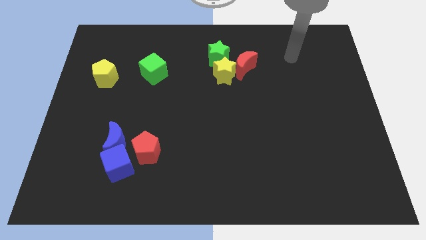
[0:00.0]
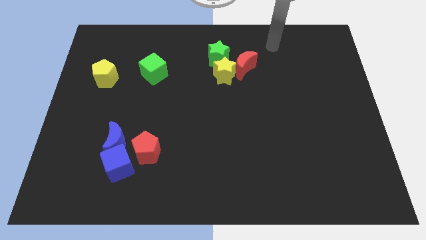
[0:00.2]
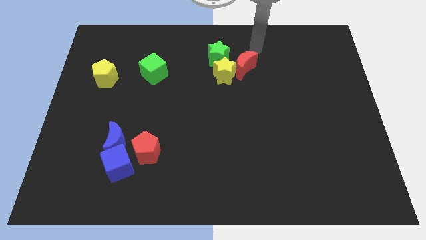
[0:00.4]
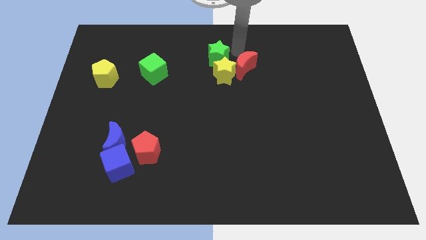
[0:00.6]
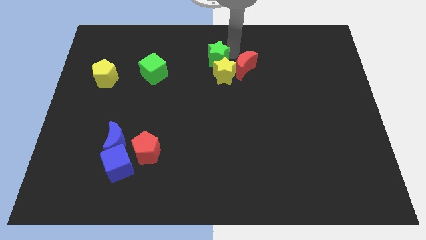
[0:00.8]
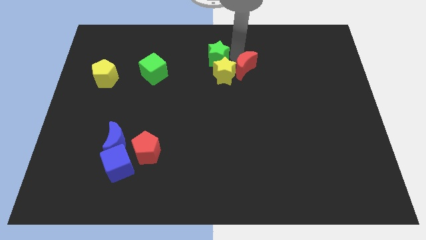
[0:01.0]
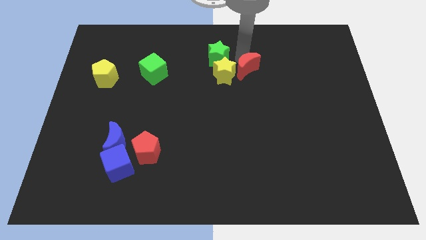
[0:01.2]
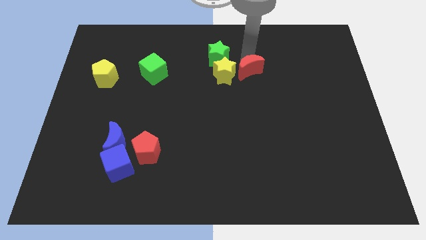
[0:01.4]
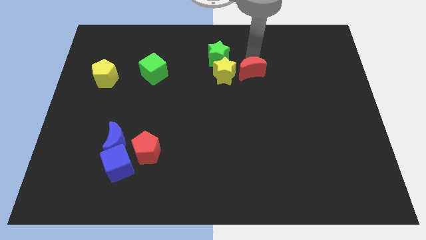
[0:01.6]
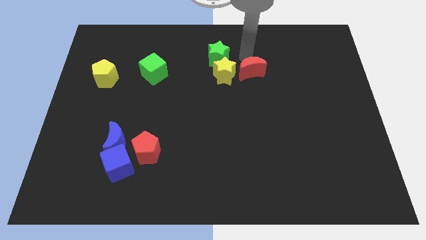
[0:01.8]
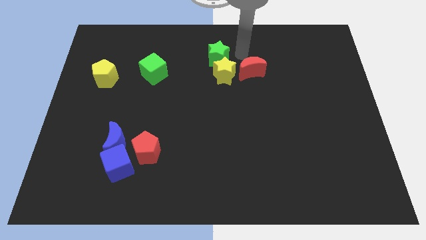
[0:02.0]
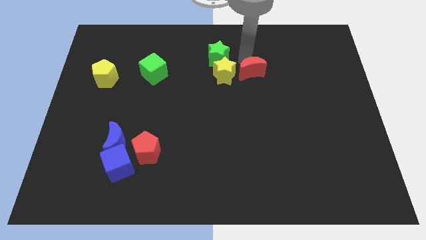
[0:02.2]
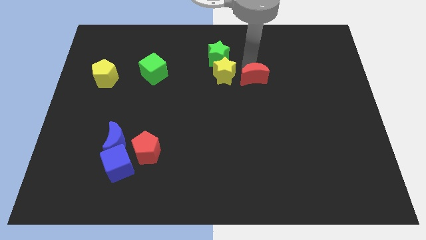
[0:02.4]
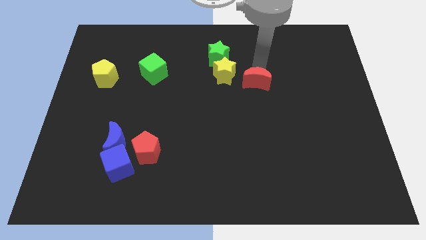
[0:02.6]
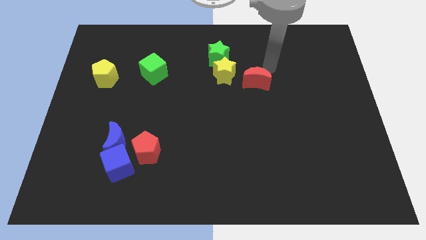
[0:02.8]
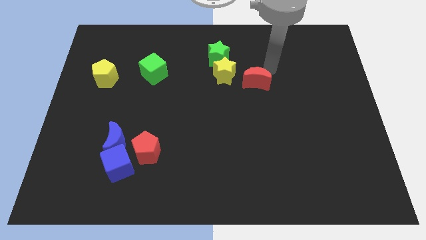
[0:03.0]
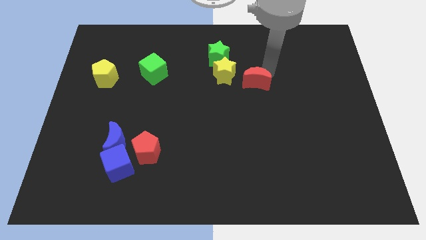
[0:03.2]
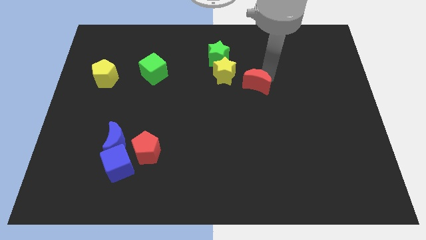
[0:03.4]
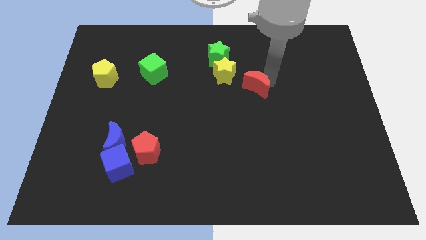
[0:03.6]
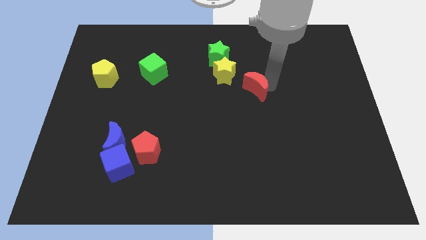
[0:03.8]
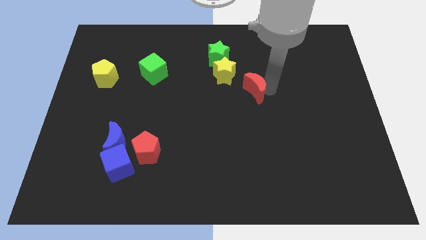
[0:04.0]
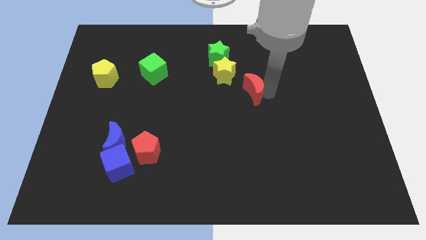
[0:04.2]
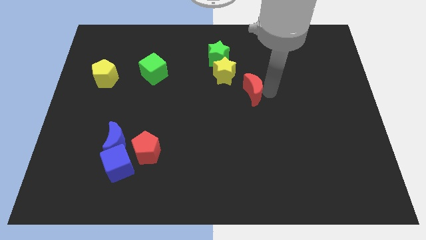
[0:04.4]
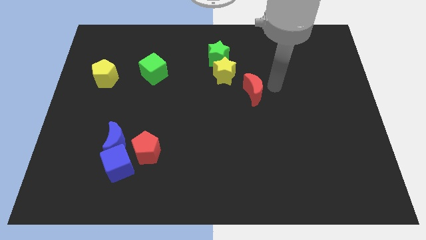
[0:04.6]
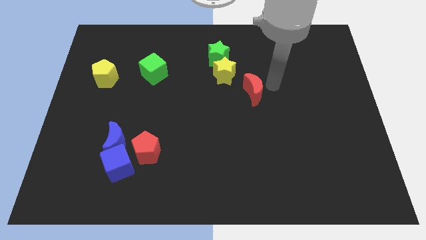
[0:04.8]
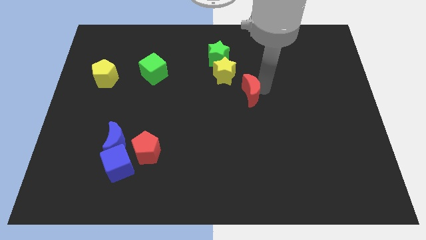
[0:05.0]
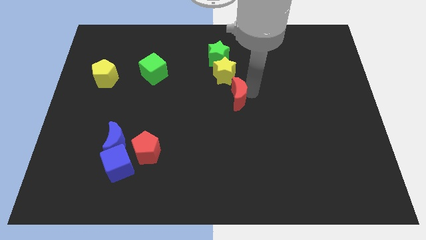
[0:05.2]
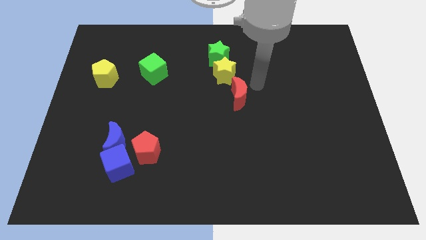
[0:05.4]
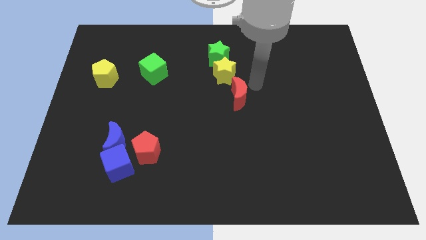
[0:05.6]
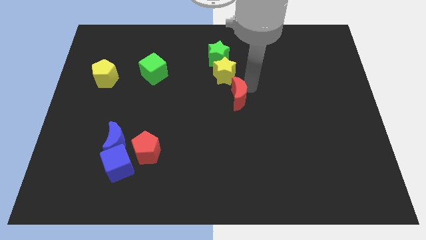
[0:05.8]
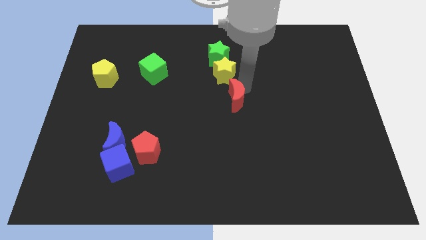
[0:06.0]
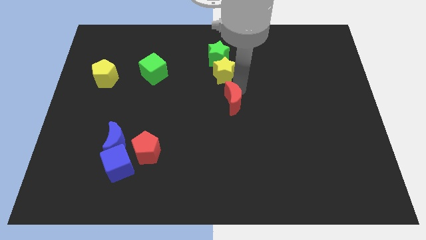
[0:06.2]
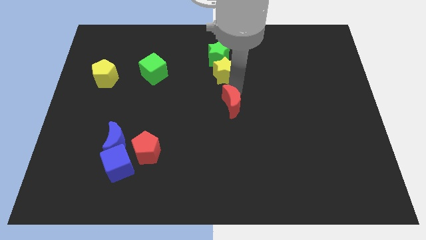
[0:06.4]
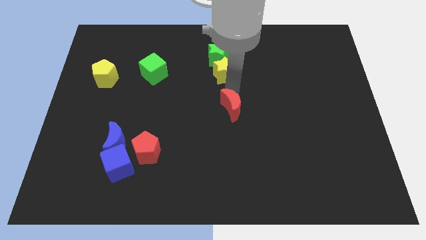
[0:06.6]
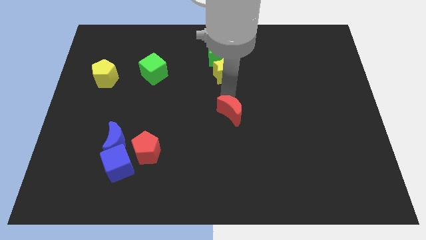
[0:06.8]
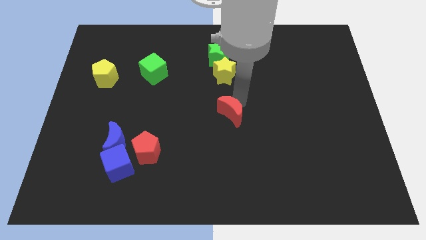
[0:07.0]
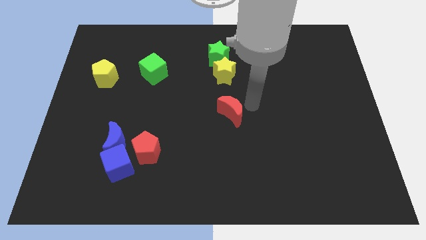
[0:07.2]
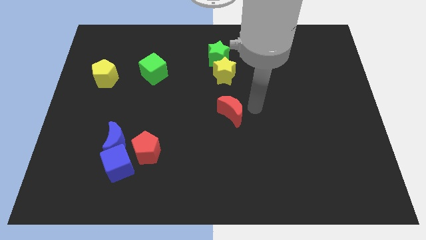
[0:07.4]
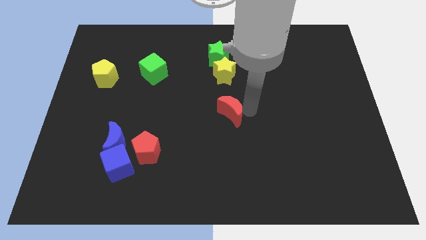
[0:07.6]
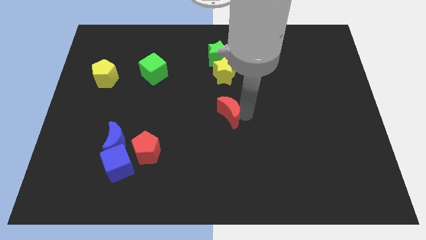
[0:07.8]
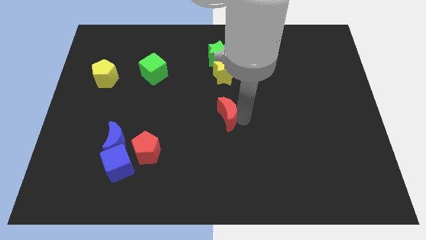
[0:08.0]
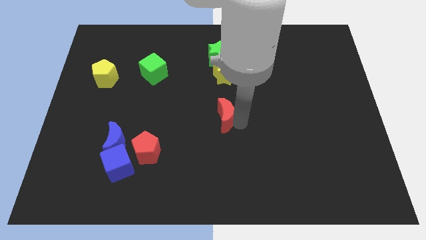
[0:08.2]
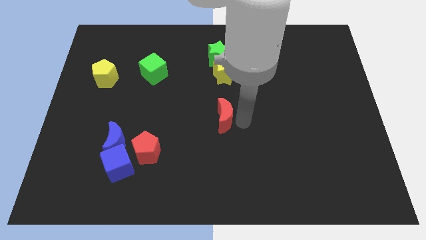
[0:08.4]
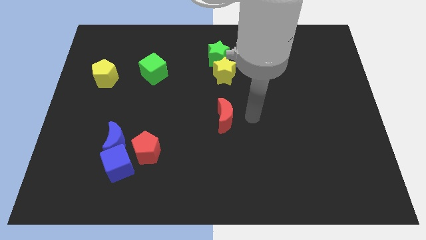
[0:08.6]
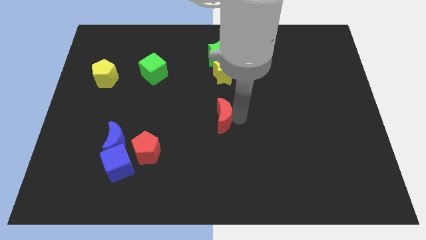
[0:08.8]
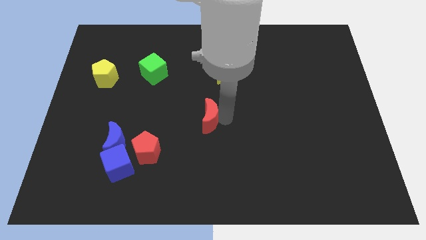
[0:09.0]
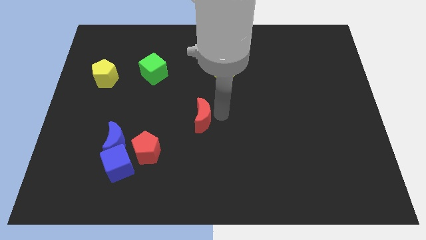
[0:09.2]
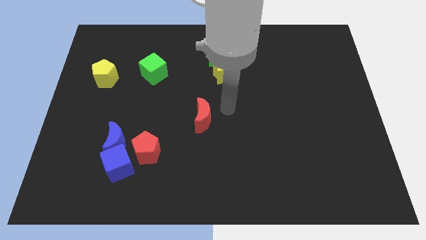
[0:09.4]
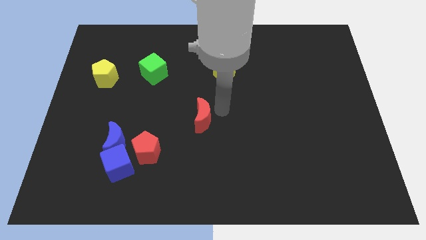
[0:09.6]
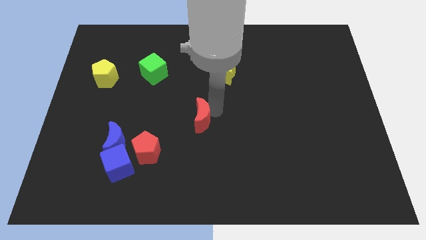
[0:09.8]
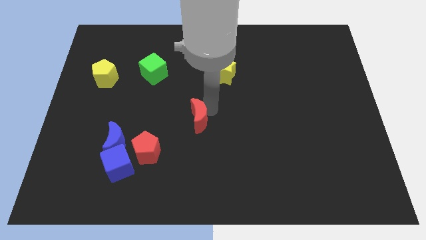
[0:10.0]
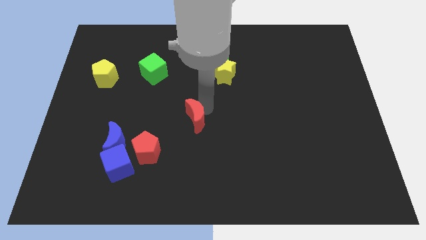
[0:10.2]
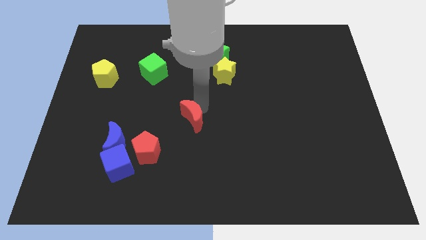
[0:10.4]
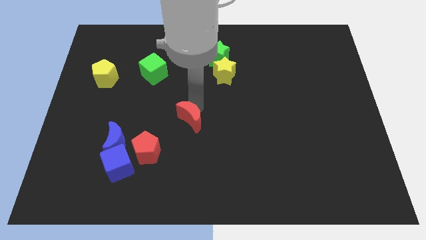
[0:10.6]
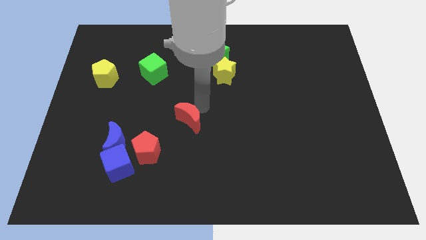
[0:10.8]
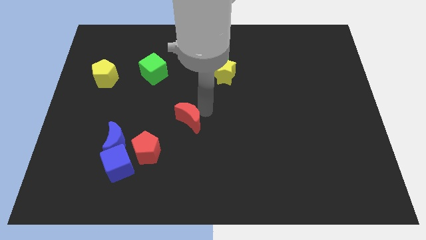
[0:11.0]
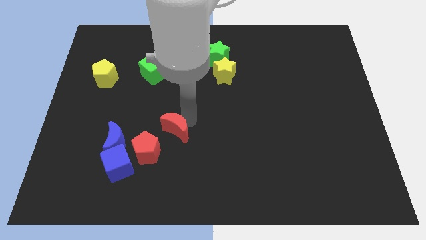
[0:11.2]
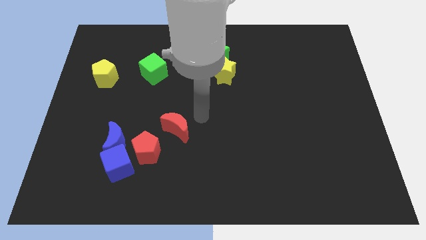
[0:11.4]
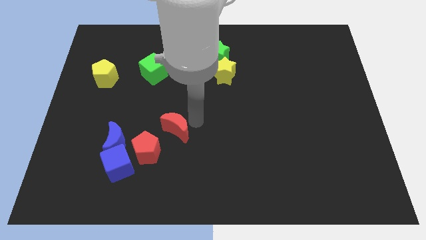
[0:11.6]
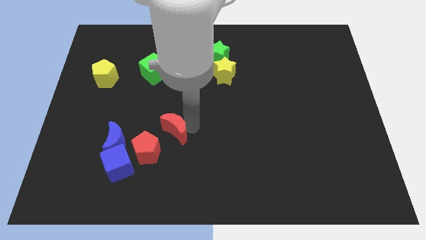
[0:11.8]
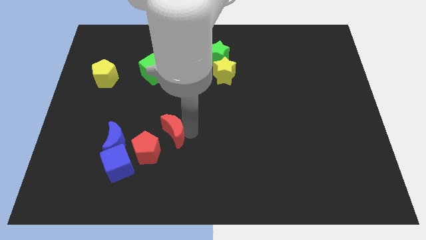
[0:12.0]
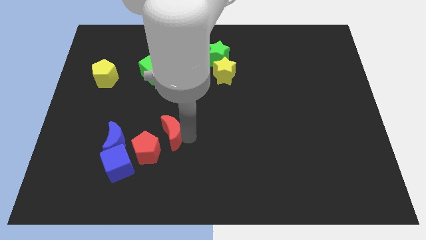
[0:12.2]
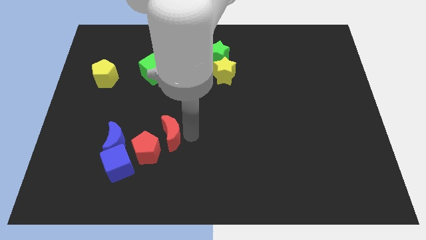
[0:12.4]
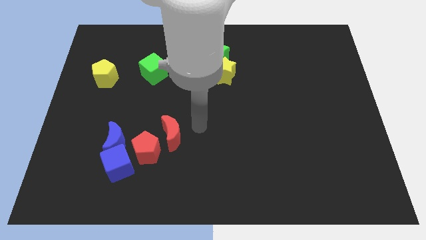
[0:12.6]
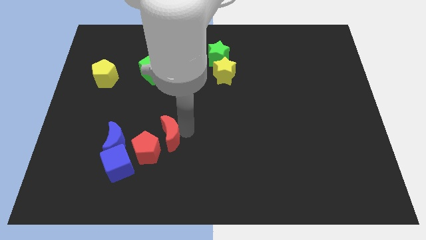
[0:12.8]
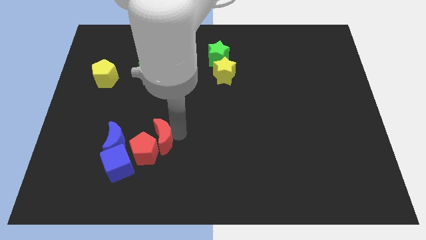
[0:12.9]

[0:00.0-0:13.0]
move the red moon to the top right of the blue cube

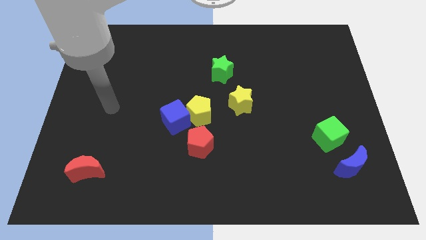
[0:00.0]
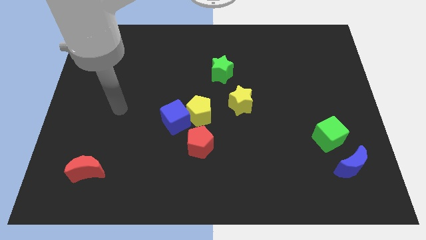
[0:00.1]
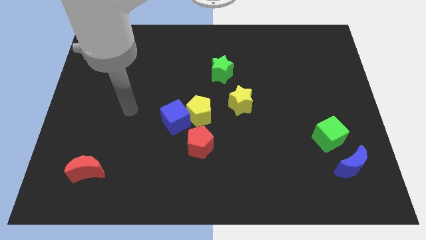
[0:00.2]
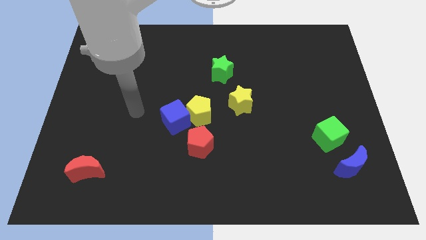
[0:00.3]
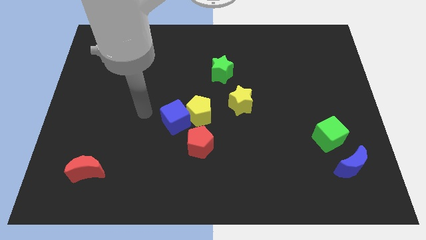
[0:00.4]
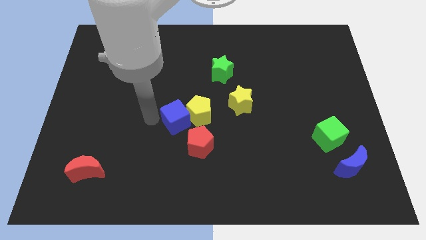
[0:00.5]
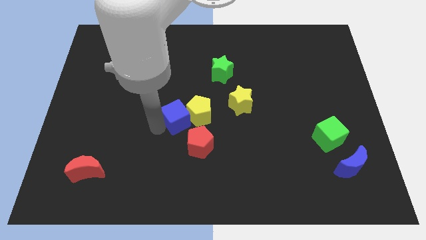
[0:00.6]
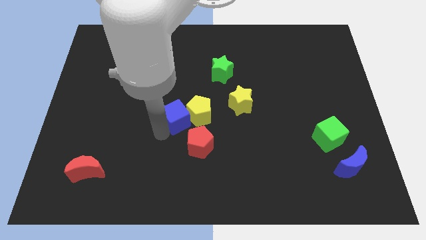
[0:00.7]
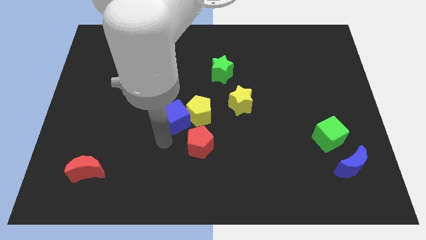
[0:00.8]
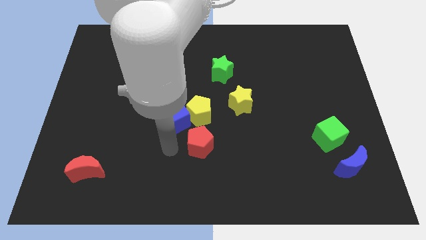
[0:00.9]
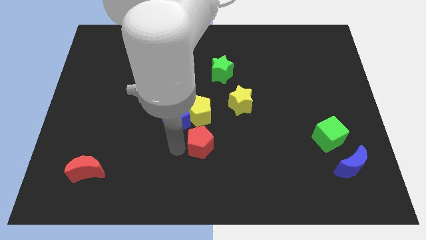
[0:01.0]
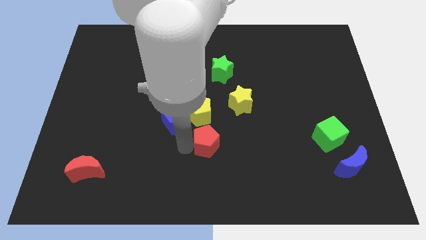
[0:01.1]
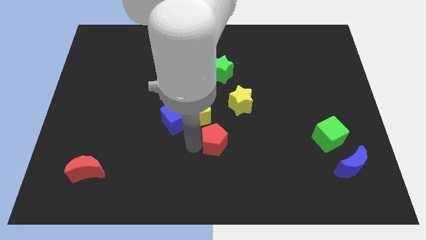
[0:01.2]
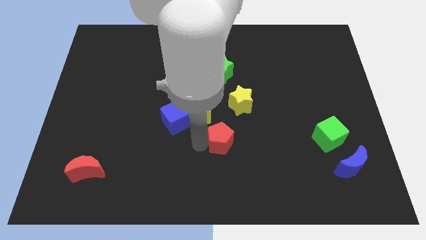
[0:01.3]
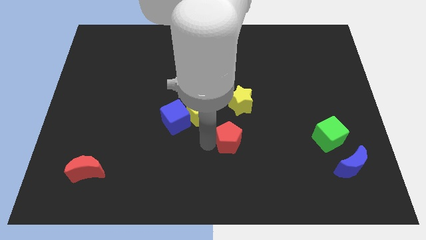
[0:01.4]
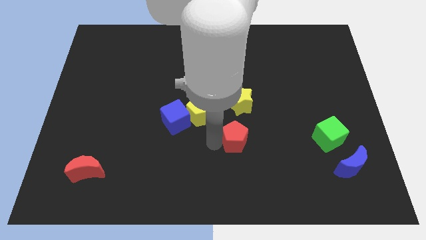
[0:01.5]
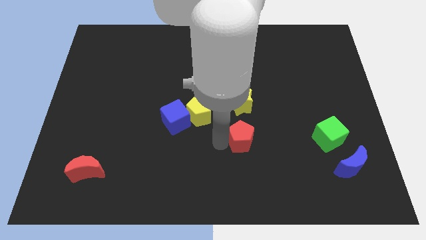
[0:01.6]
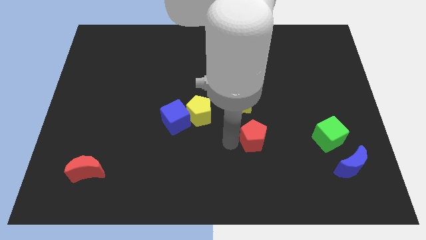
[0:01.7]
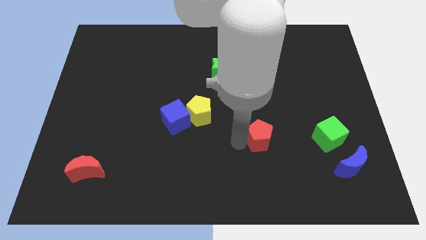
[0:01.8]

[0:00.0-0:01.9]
put the red pentagon diagonally down and to the right of the yellow star
